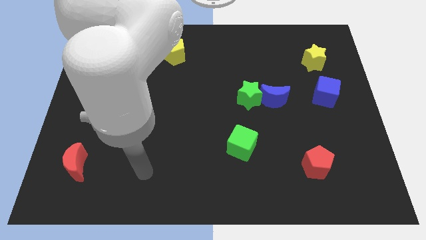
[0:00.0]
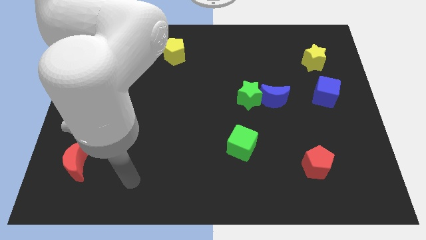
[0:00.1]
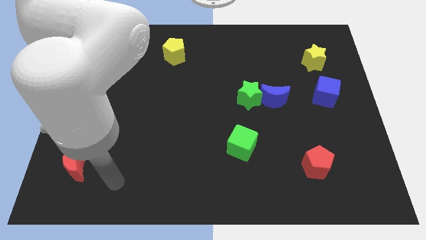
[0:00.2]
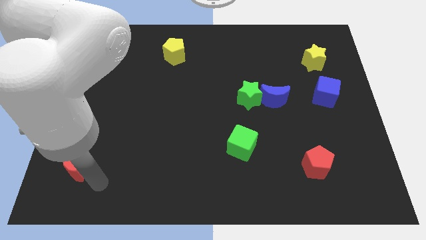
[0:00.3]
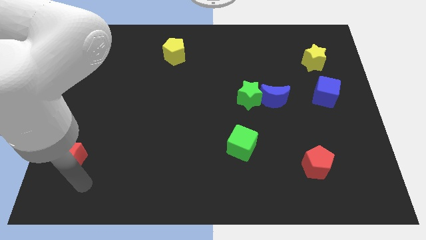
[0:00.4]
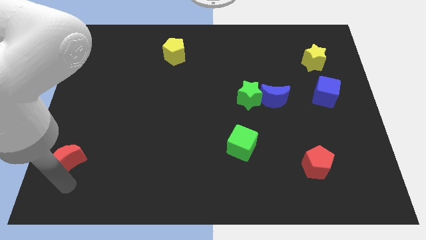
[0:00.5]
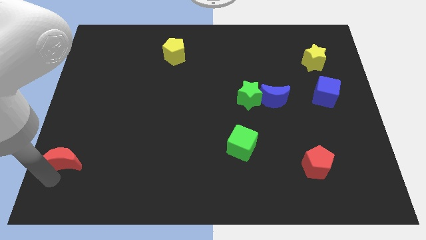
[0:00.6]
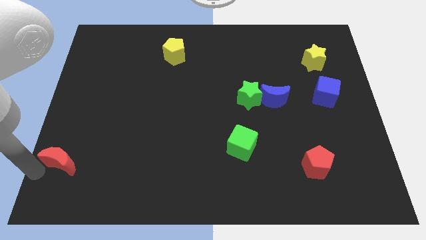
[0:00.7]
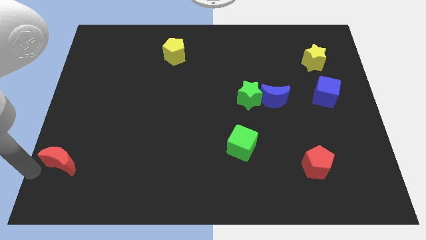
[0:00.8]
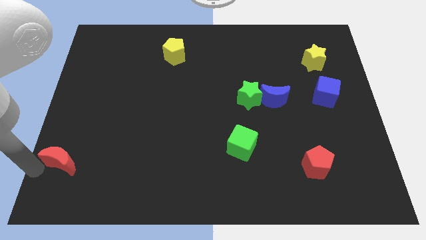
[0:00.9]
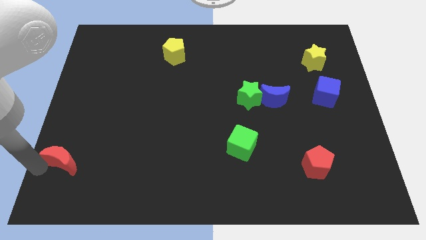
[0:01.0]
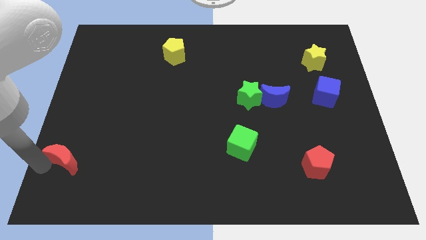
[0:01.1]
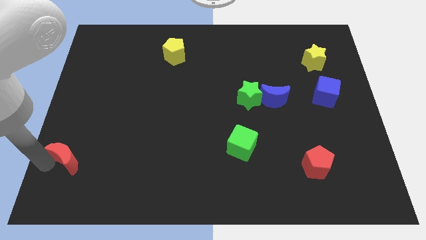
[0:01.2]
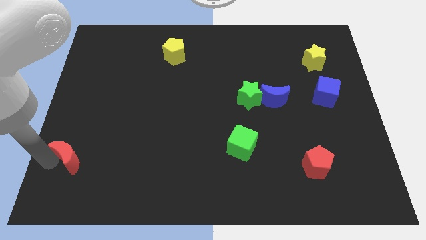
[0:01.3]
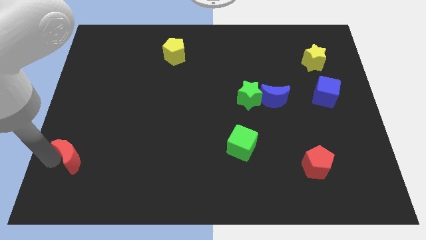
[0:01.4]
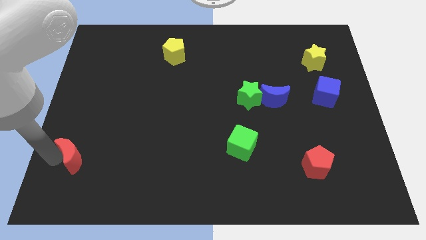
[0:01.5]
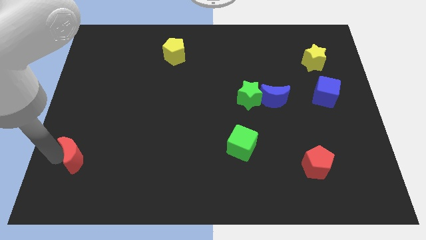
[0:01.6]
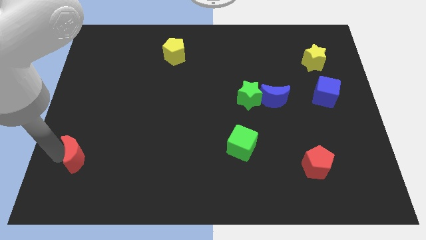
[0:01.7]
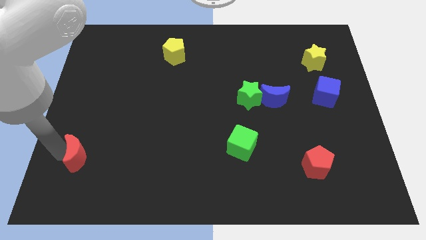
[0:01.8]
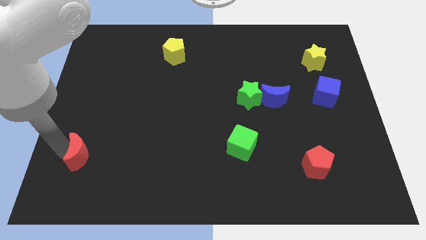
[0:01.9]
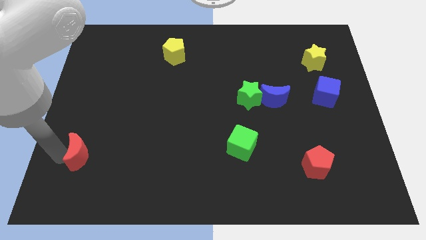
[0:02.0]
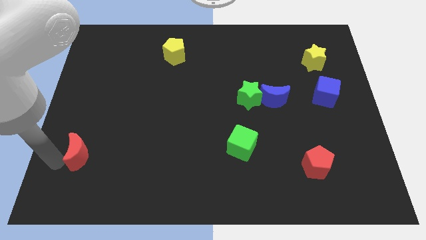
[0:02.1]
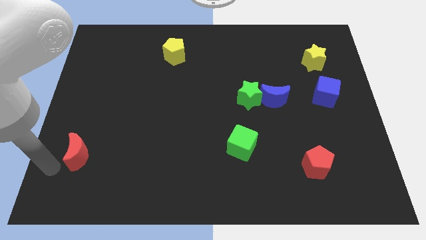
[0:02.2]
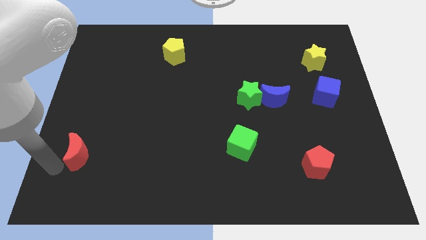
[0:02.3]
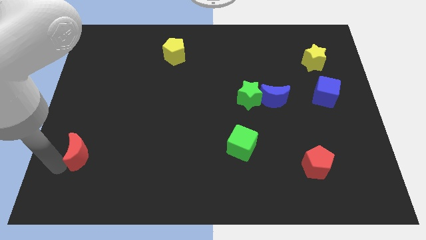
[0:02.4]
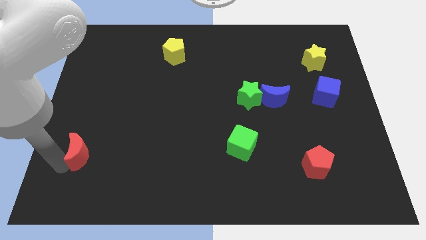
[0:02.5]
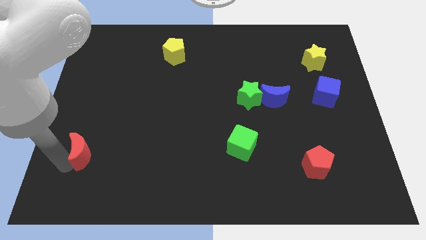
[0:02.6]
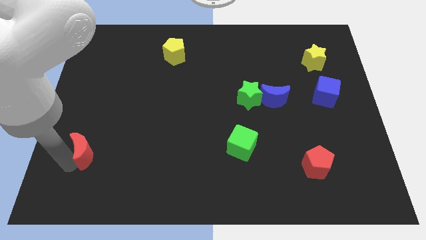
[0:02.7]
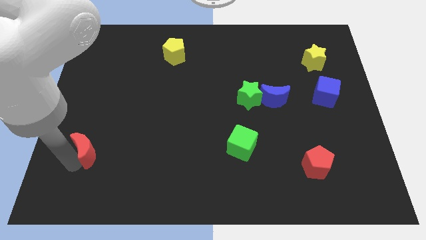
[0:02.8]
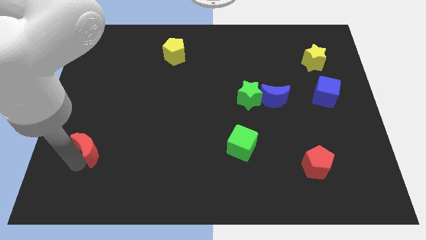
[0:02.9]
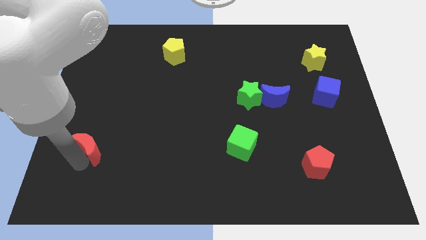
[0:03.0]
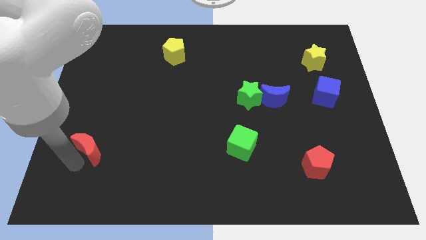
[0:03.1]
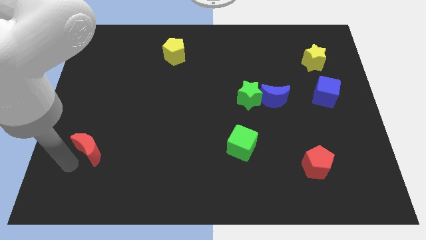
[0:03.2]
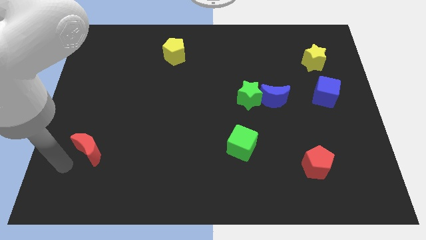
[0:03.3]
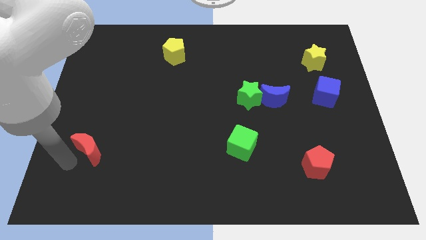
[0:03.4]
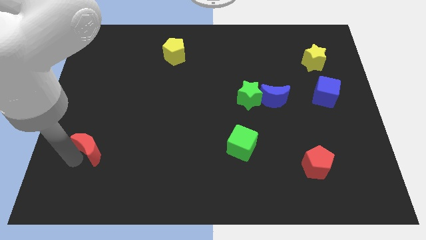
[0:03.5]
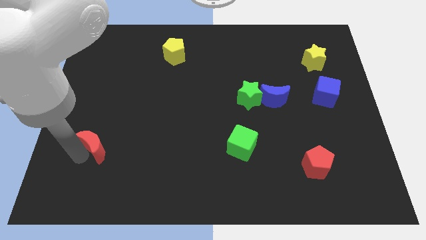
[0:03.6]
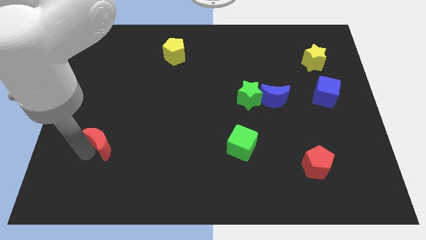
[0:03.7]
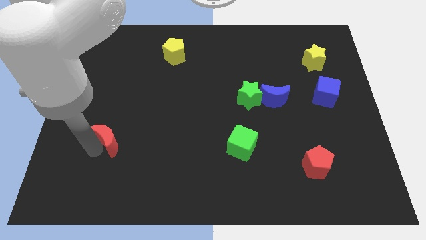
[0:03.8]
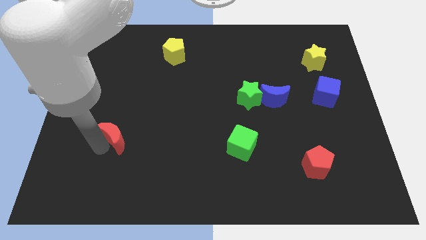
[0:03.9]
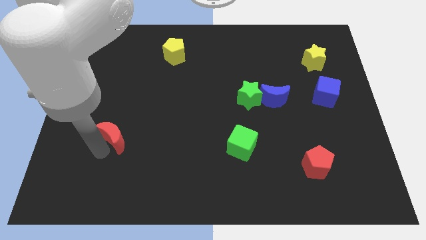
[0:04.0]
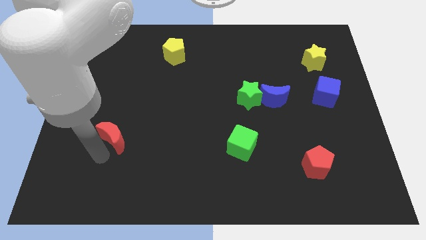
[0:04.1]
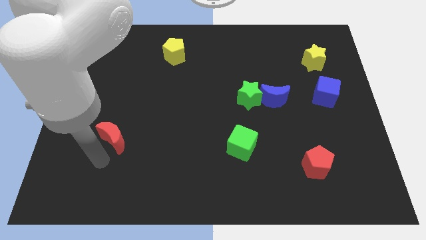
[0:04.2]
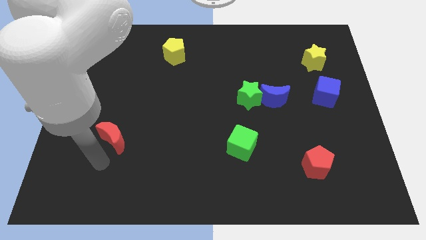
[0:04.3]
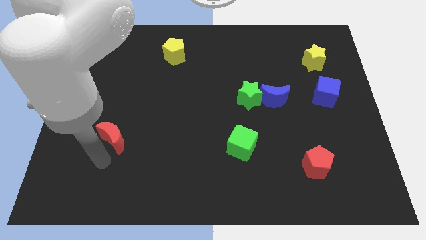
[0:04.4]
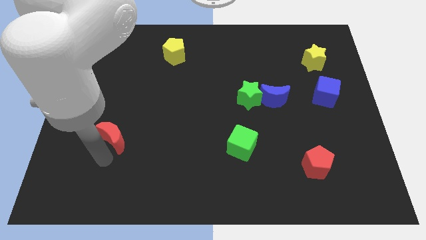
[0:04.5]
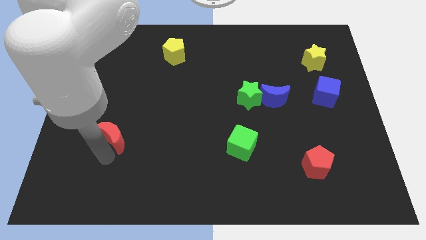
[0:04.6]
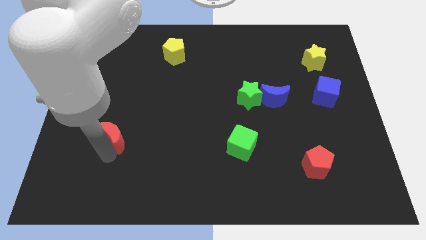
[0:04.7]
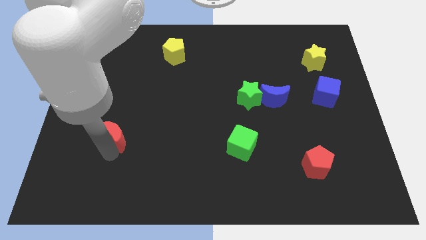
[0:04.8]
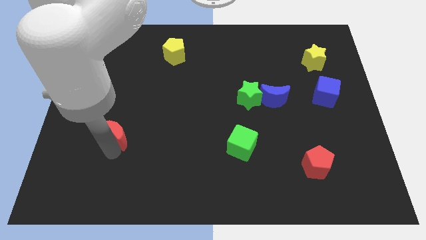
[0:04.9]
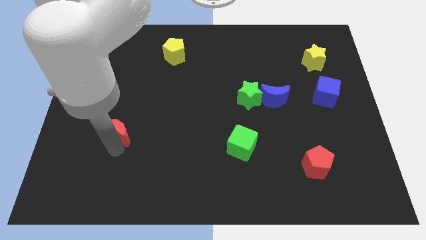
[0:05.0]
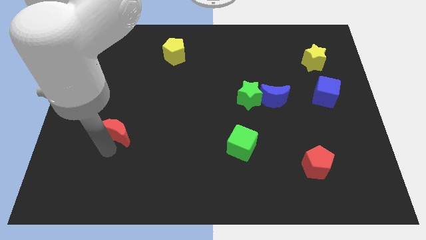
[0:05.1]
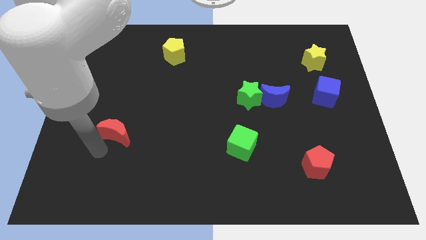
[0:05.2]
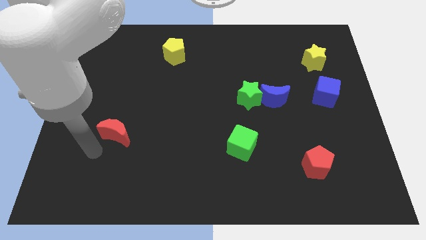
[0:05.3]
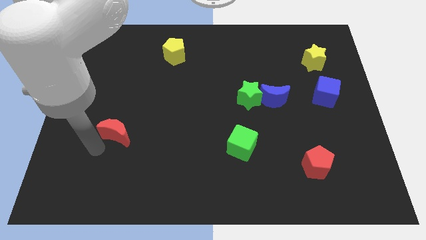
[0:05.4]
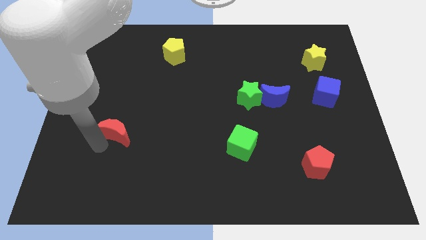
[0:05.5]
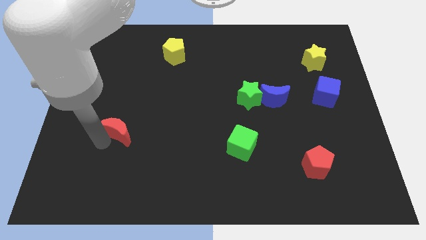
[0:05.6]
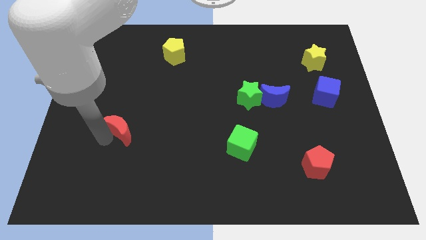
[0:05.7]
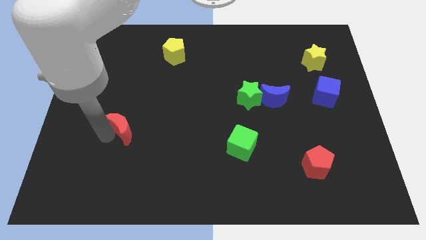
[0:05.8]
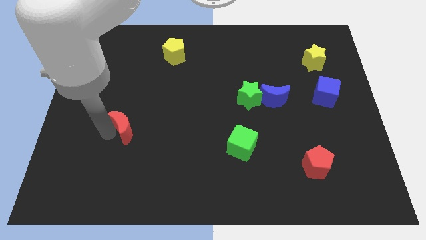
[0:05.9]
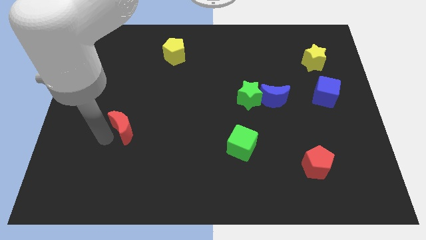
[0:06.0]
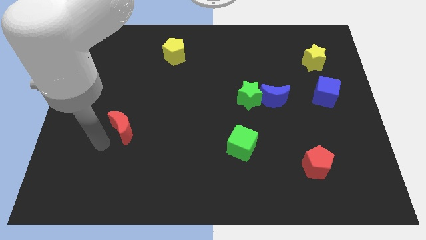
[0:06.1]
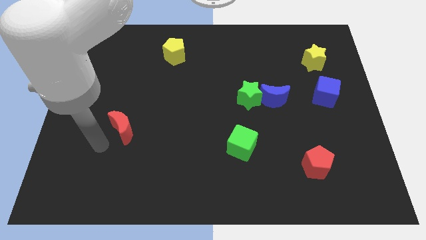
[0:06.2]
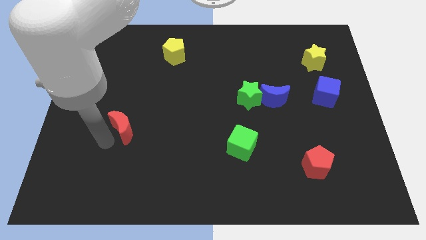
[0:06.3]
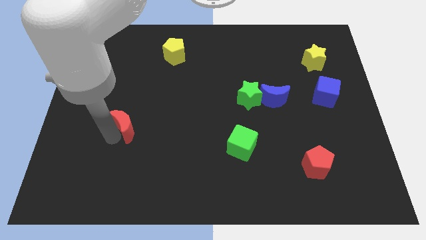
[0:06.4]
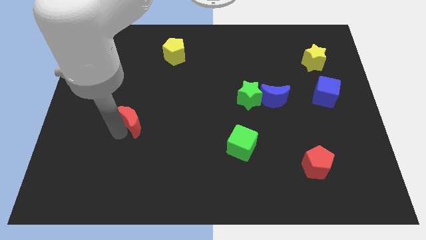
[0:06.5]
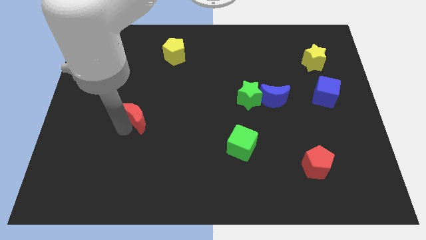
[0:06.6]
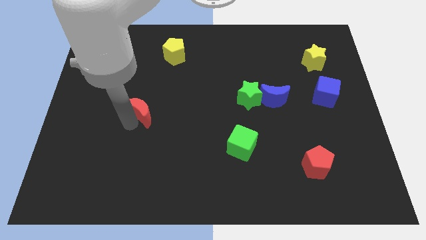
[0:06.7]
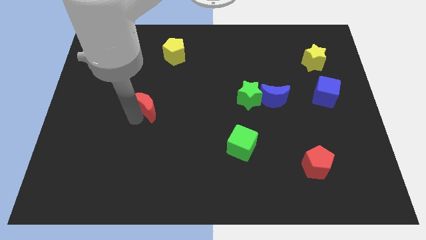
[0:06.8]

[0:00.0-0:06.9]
move the red moon upwards and then right

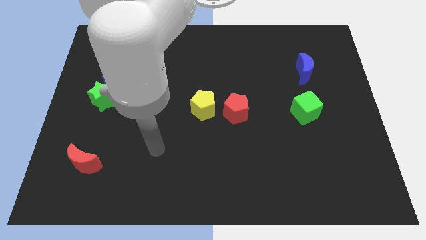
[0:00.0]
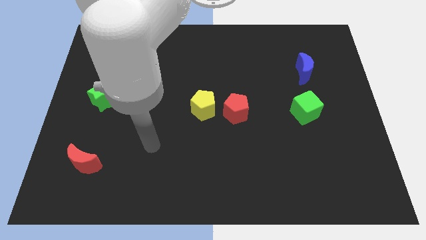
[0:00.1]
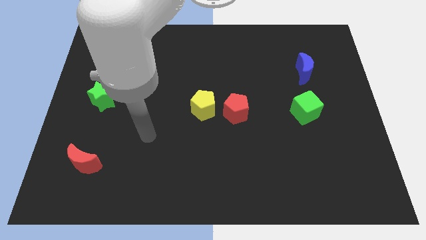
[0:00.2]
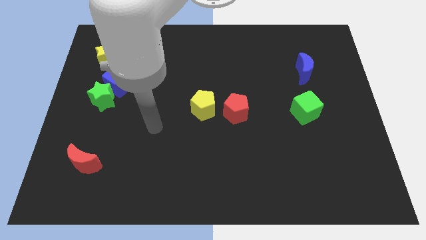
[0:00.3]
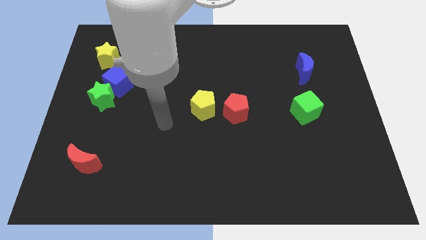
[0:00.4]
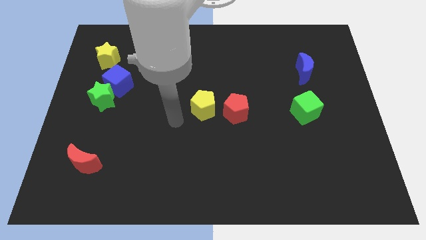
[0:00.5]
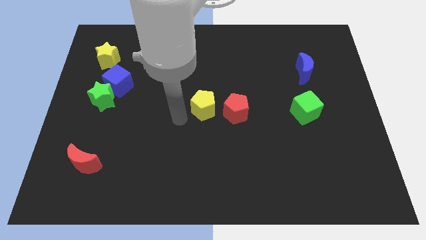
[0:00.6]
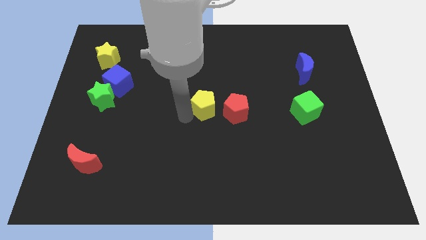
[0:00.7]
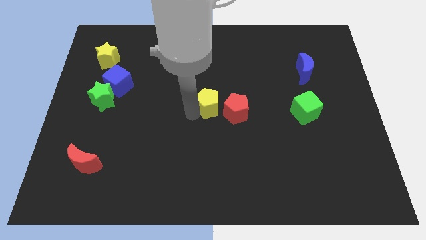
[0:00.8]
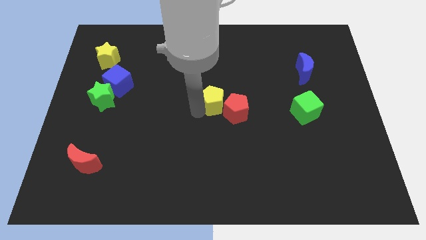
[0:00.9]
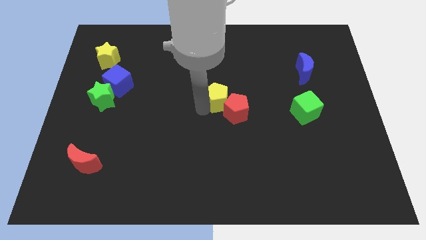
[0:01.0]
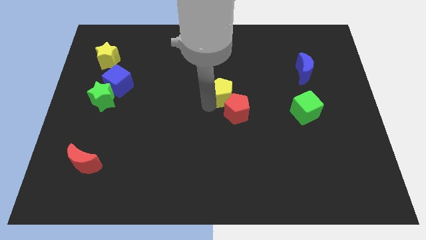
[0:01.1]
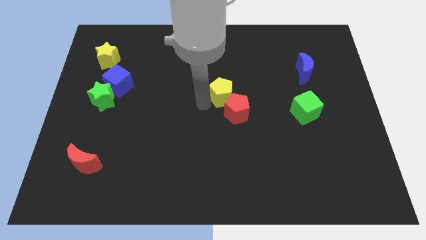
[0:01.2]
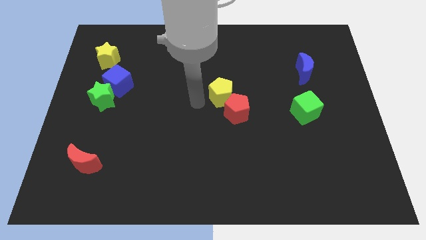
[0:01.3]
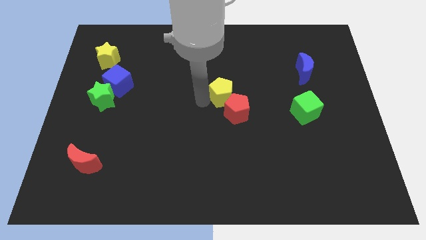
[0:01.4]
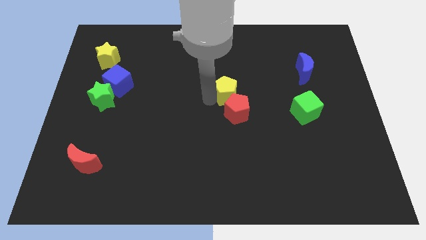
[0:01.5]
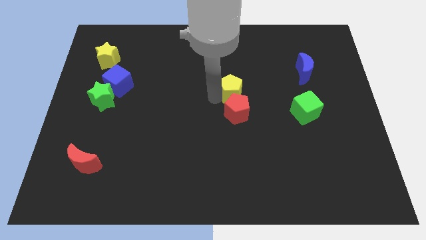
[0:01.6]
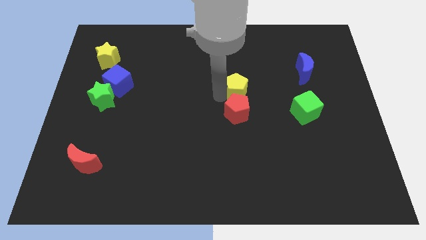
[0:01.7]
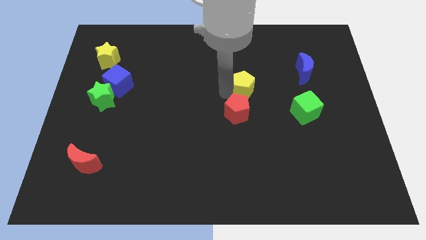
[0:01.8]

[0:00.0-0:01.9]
slightly move the yellow pentagon to the right
